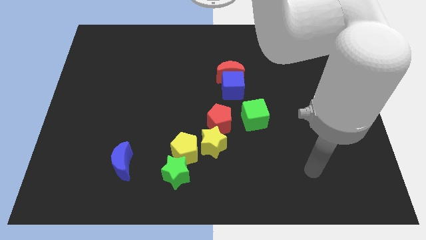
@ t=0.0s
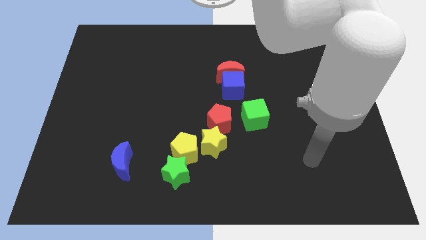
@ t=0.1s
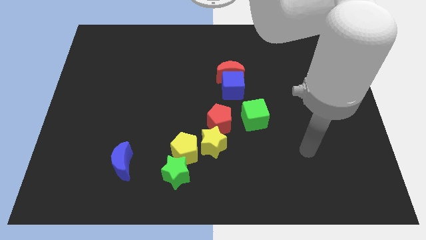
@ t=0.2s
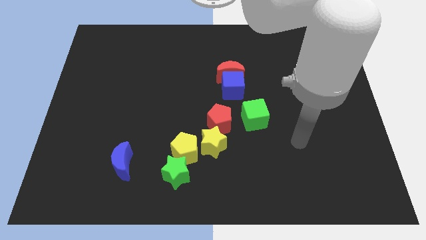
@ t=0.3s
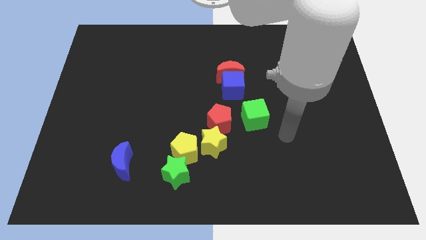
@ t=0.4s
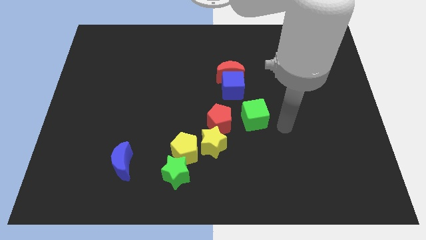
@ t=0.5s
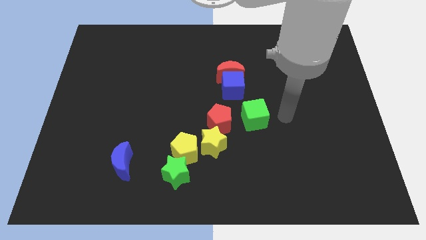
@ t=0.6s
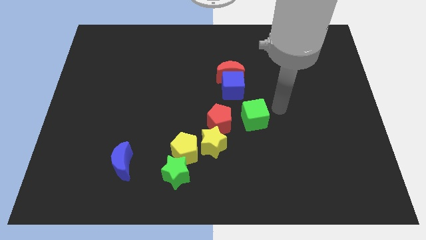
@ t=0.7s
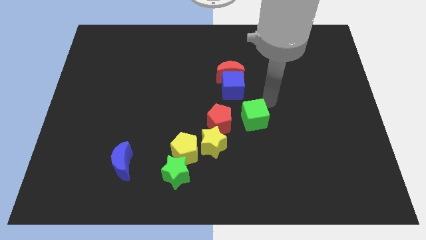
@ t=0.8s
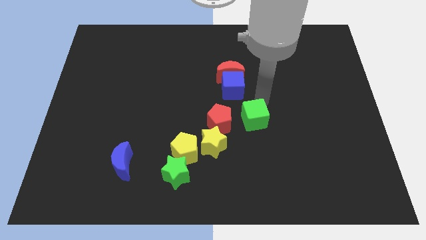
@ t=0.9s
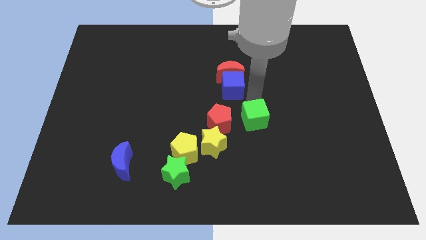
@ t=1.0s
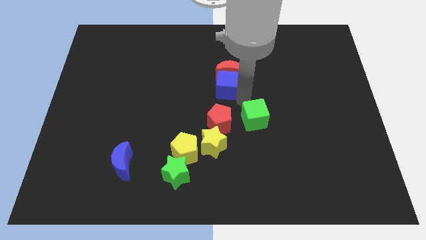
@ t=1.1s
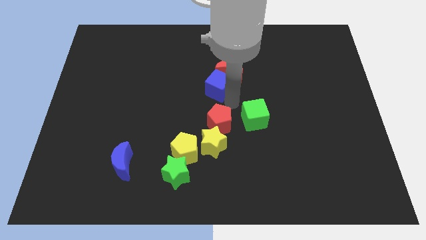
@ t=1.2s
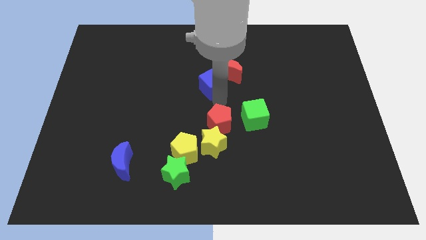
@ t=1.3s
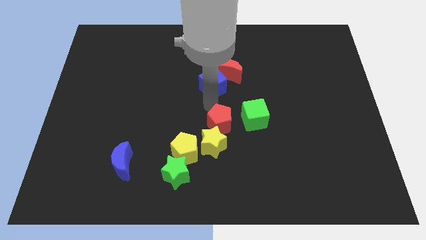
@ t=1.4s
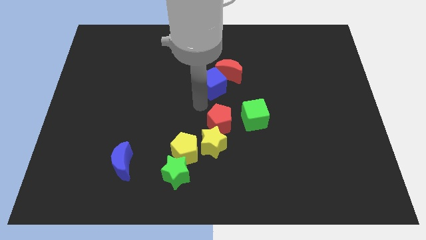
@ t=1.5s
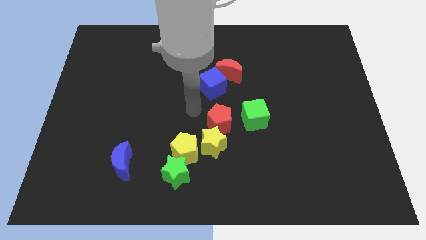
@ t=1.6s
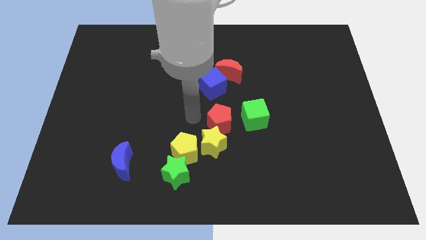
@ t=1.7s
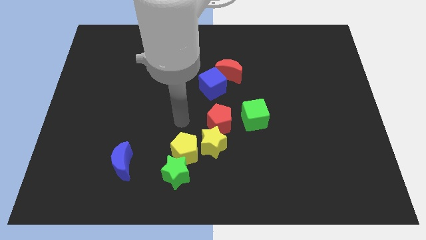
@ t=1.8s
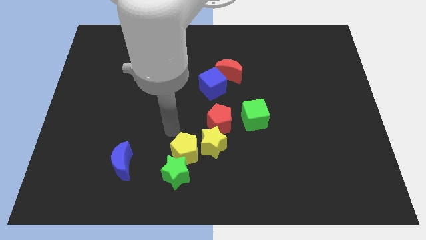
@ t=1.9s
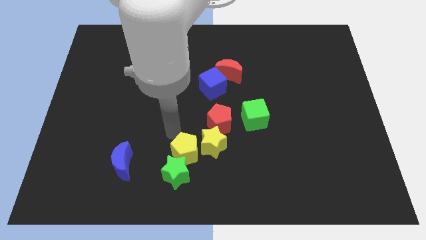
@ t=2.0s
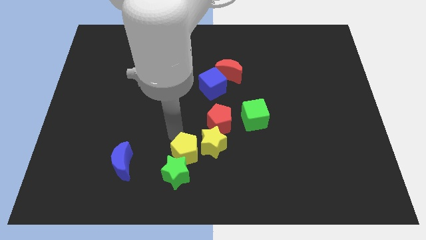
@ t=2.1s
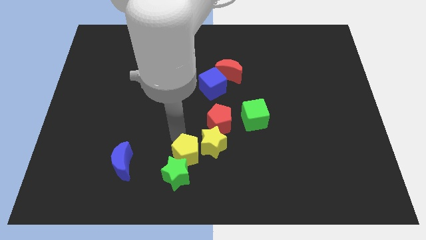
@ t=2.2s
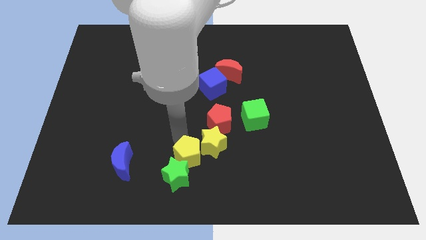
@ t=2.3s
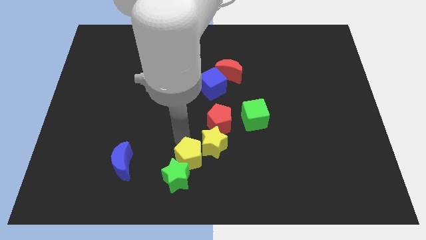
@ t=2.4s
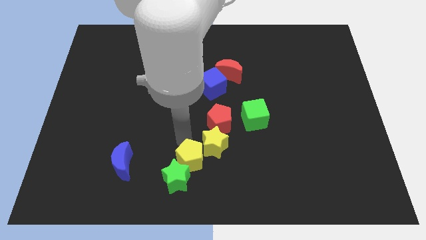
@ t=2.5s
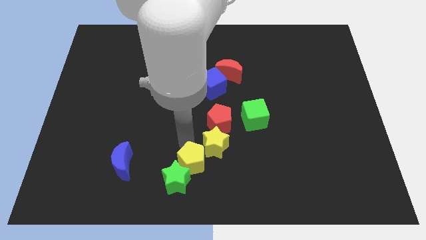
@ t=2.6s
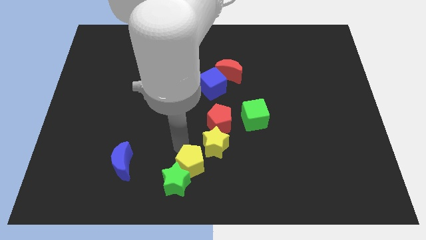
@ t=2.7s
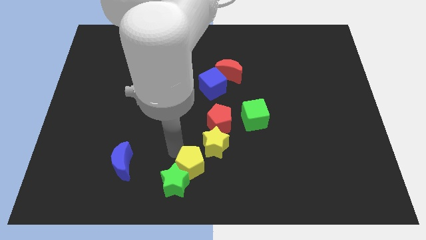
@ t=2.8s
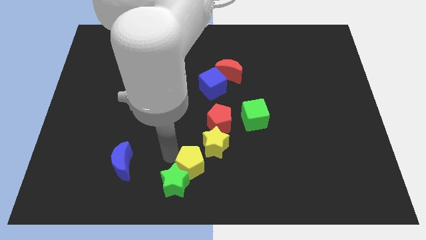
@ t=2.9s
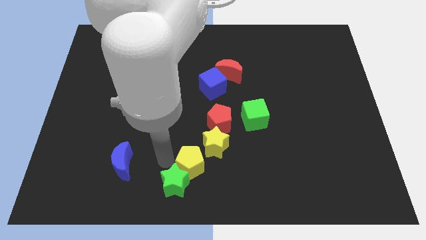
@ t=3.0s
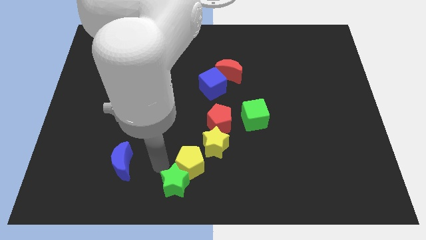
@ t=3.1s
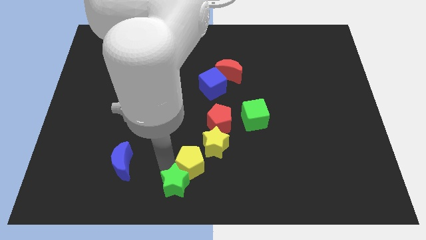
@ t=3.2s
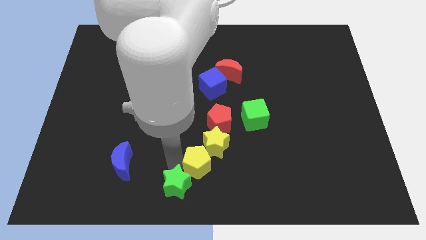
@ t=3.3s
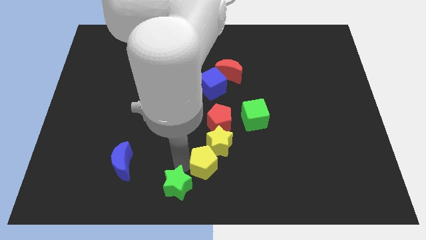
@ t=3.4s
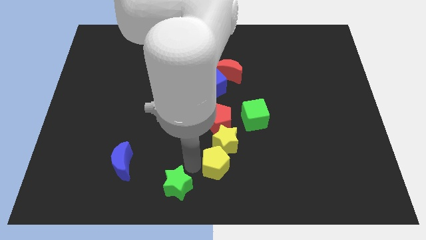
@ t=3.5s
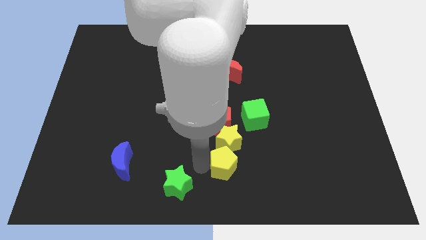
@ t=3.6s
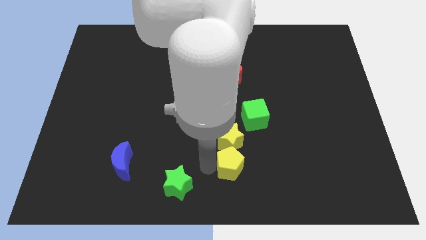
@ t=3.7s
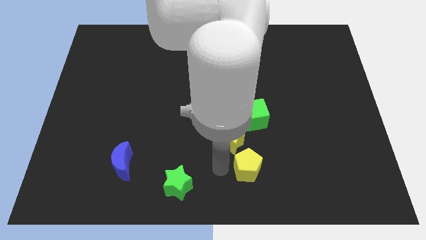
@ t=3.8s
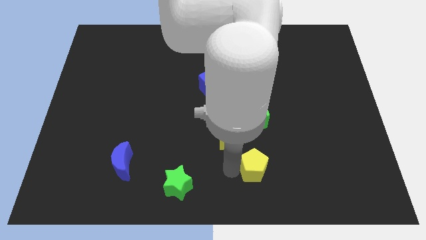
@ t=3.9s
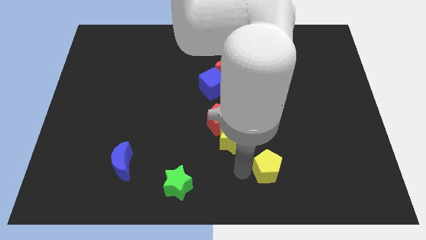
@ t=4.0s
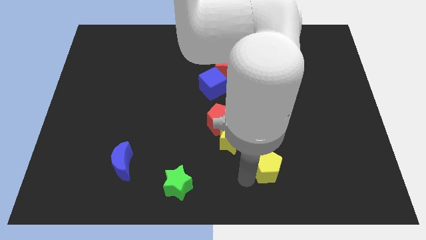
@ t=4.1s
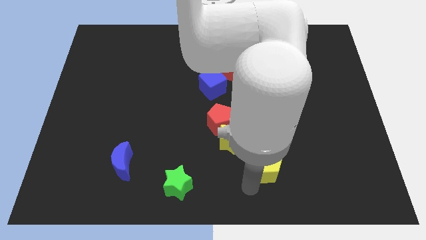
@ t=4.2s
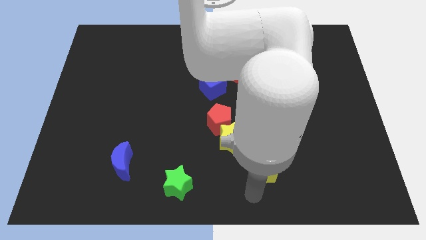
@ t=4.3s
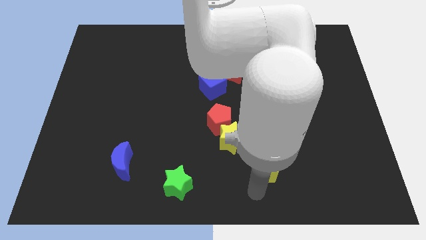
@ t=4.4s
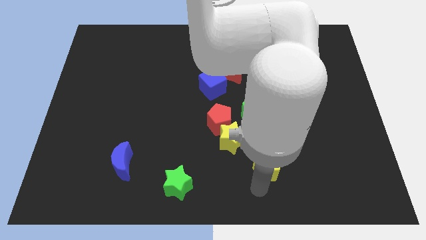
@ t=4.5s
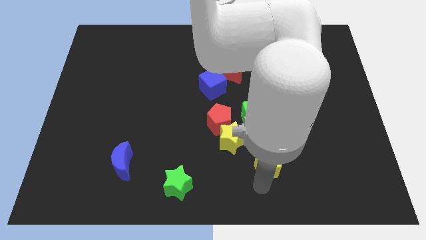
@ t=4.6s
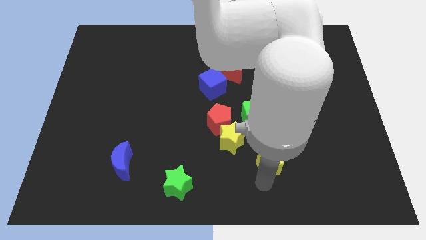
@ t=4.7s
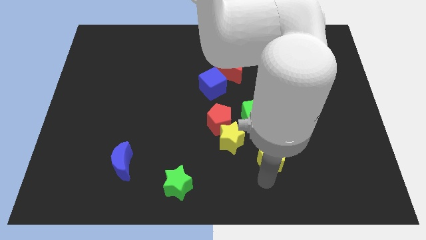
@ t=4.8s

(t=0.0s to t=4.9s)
push the yellow pentagon to the right of the yellow star

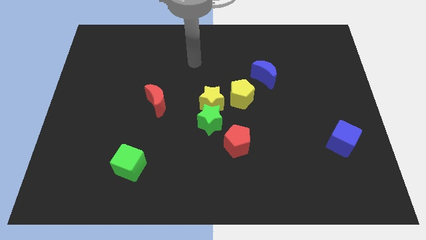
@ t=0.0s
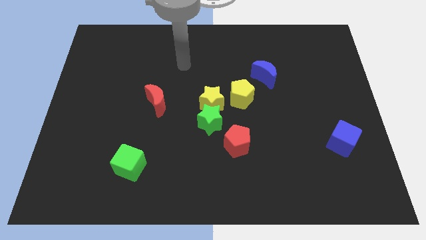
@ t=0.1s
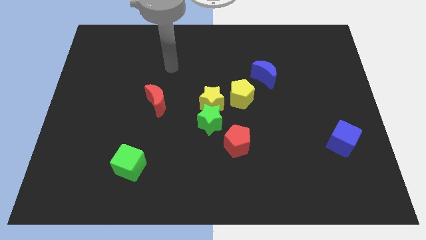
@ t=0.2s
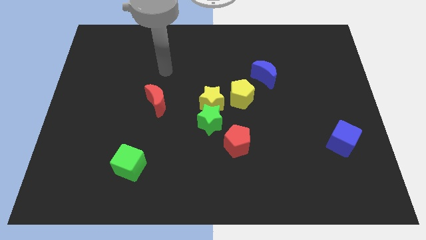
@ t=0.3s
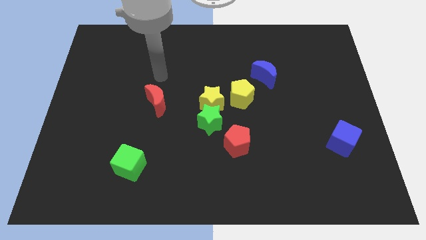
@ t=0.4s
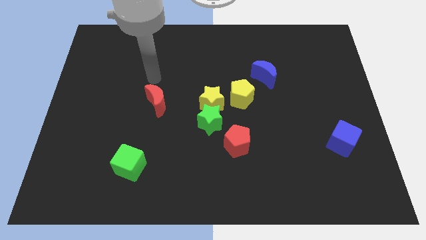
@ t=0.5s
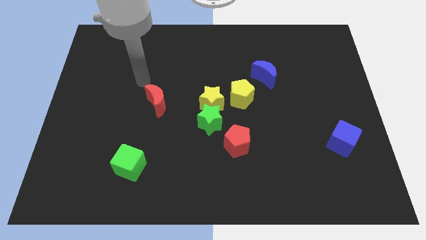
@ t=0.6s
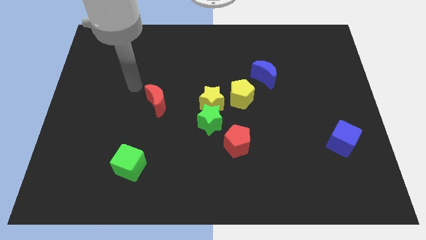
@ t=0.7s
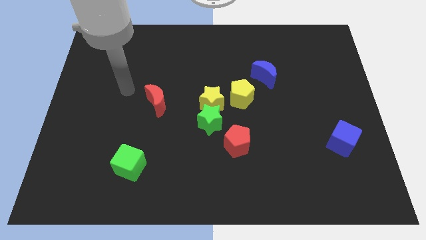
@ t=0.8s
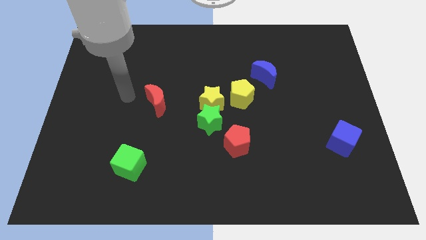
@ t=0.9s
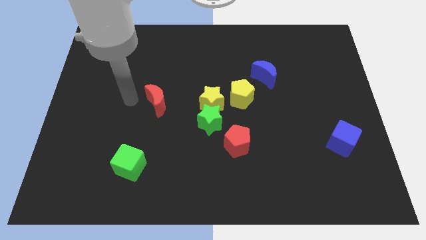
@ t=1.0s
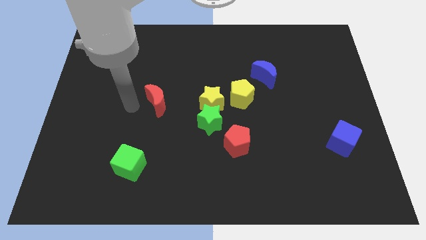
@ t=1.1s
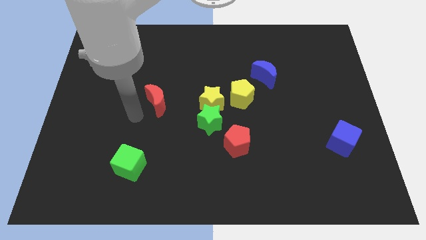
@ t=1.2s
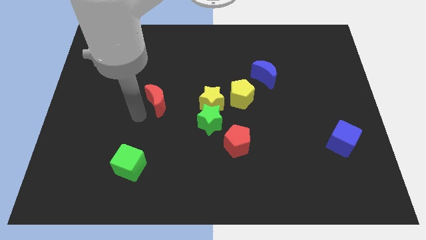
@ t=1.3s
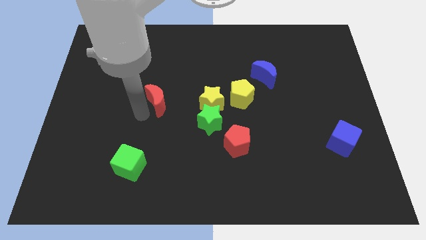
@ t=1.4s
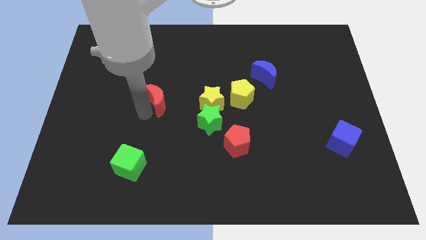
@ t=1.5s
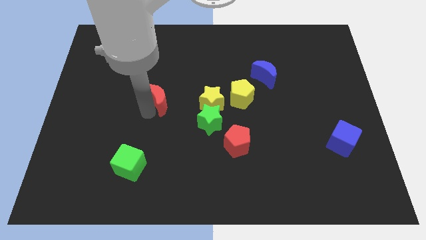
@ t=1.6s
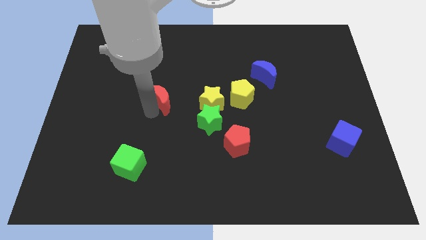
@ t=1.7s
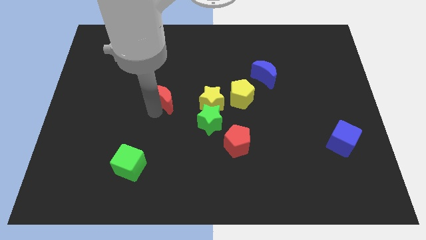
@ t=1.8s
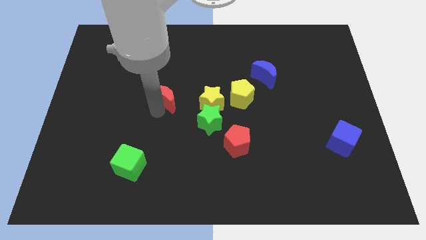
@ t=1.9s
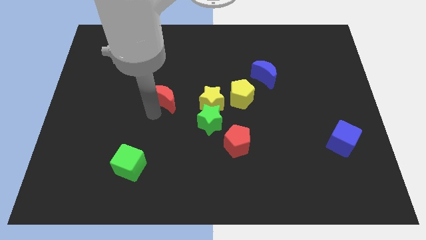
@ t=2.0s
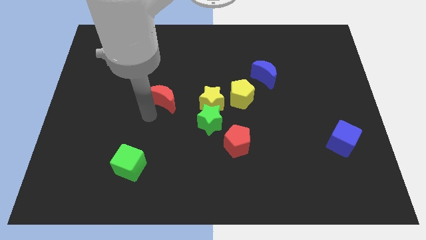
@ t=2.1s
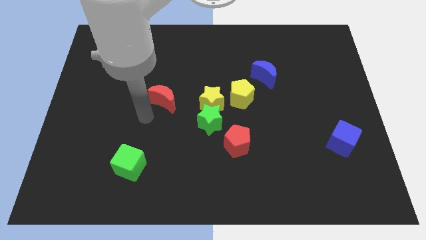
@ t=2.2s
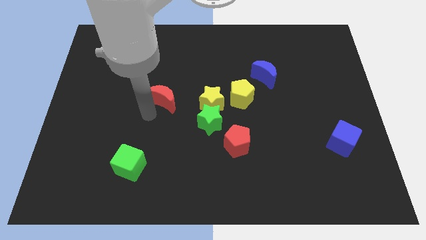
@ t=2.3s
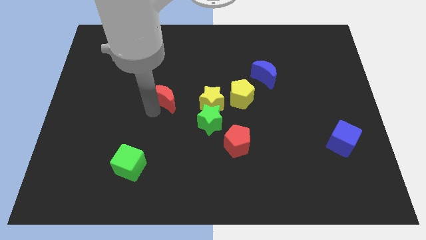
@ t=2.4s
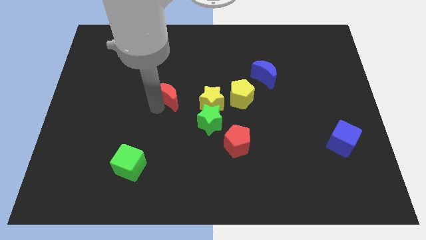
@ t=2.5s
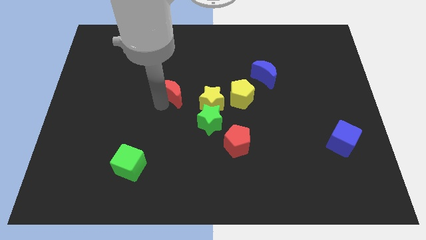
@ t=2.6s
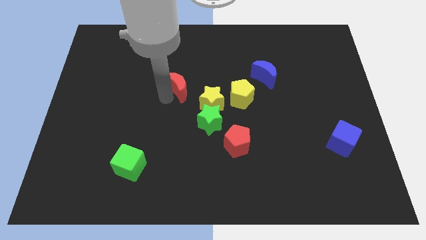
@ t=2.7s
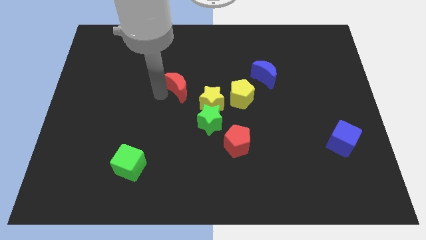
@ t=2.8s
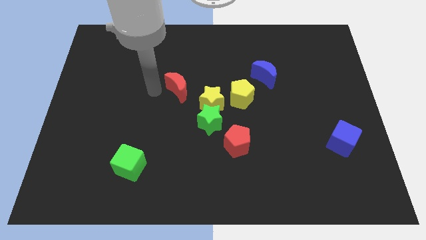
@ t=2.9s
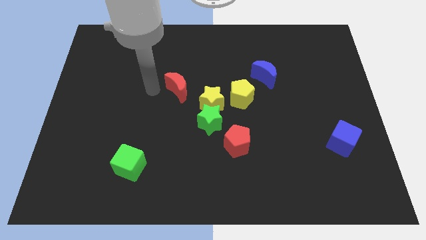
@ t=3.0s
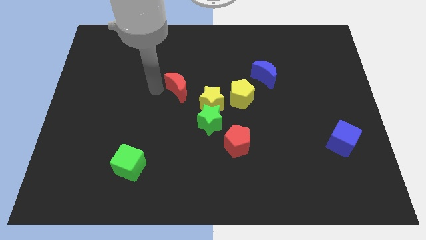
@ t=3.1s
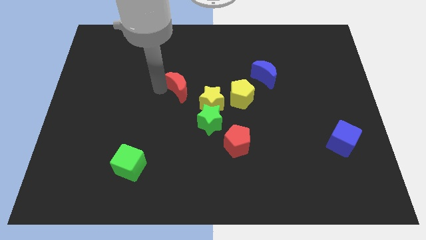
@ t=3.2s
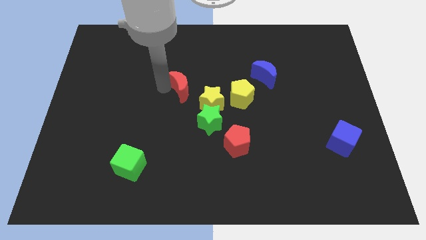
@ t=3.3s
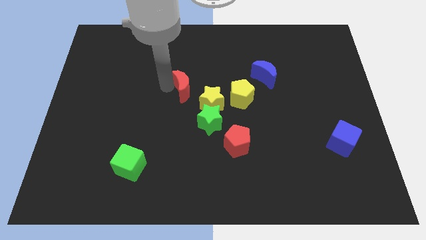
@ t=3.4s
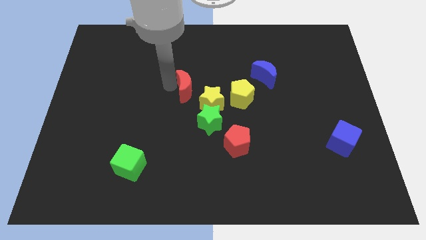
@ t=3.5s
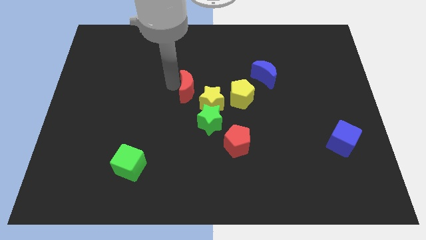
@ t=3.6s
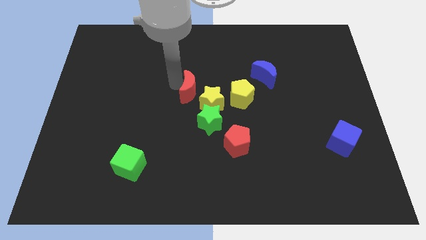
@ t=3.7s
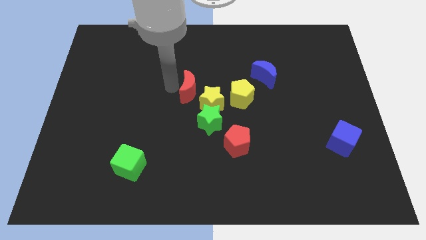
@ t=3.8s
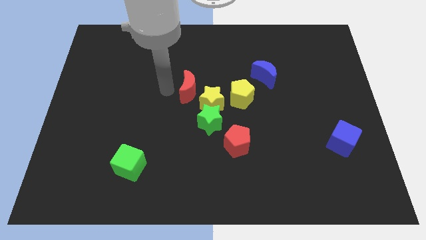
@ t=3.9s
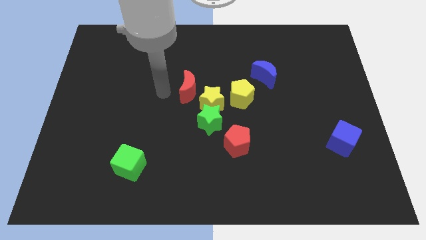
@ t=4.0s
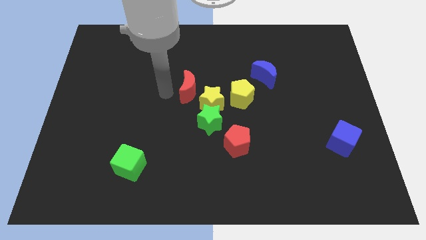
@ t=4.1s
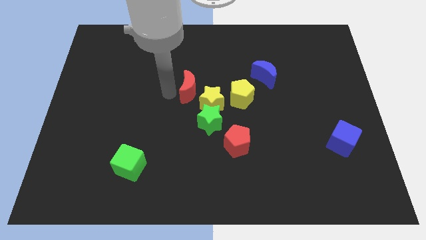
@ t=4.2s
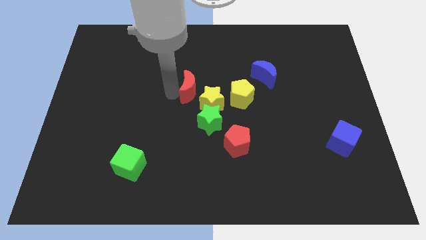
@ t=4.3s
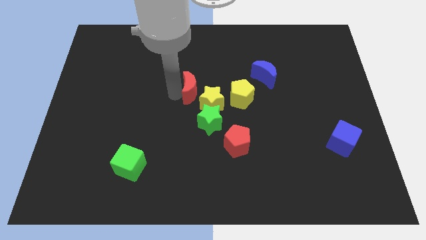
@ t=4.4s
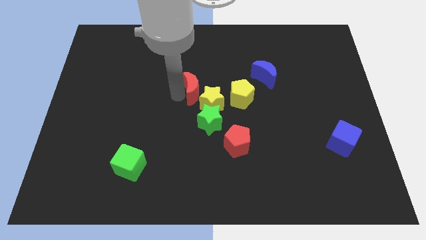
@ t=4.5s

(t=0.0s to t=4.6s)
slide the red moon to the top of the green star
